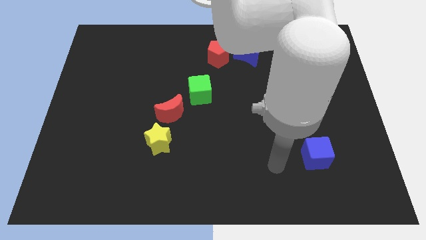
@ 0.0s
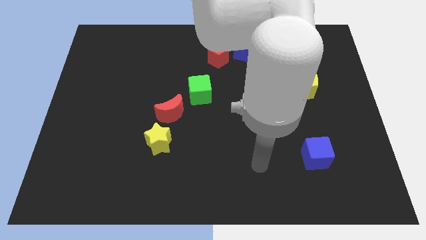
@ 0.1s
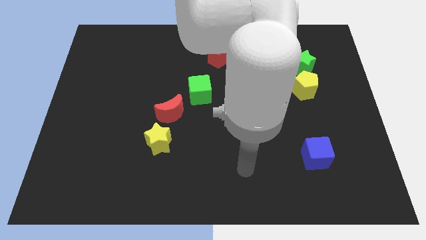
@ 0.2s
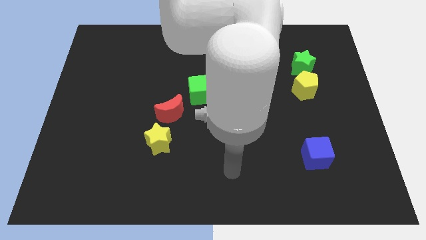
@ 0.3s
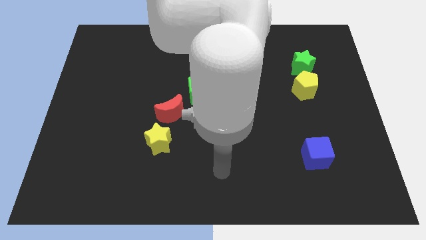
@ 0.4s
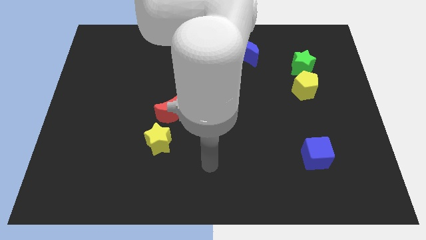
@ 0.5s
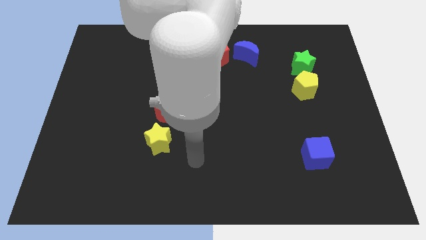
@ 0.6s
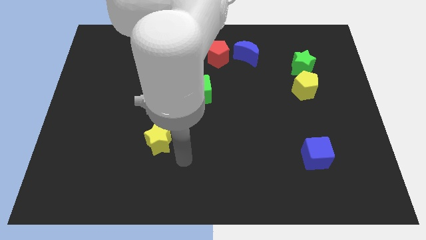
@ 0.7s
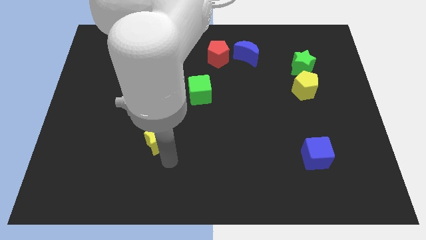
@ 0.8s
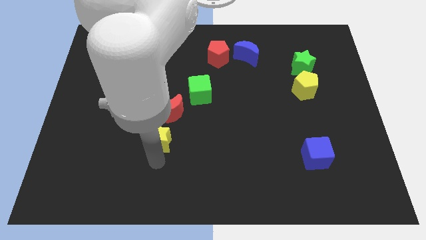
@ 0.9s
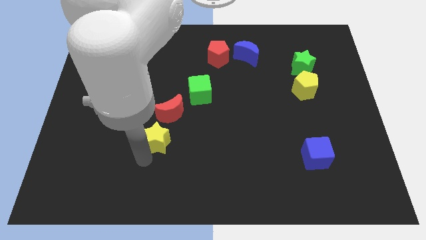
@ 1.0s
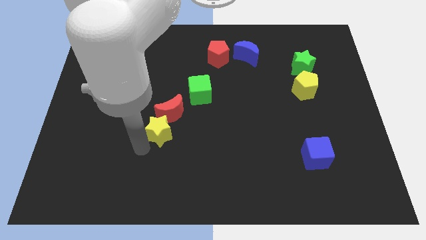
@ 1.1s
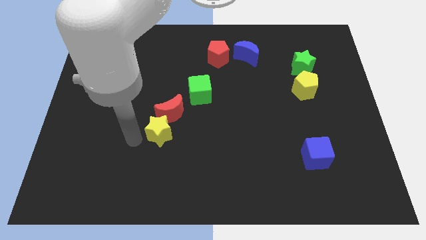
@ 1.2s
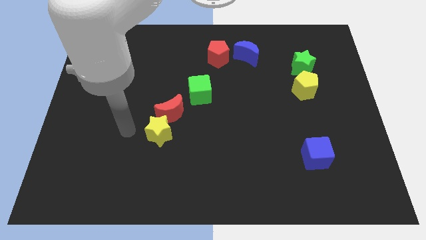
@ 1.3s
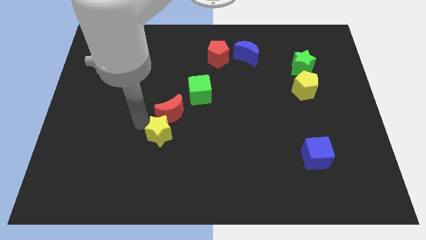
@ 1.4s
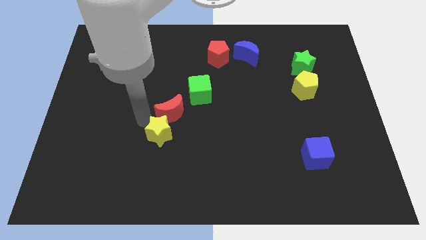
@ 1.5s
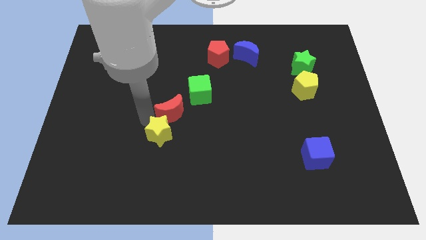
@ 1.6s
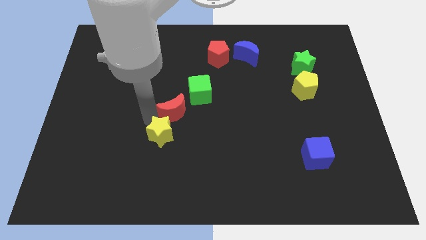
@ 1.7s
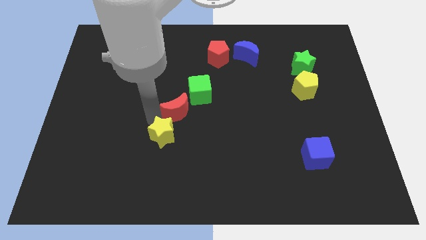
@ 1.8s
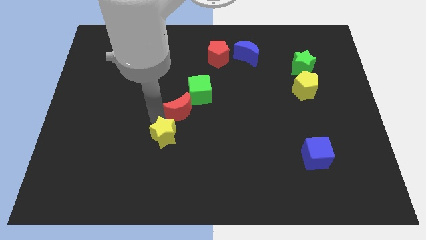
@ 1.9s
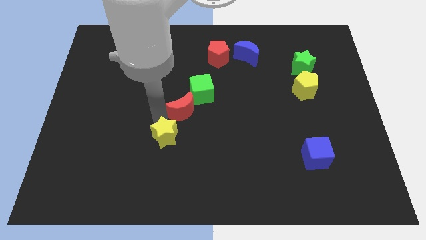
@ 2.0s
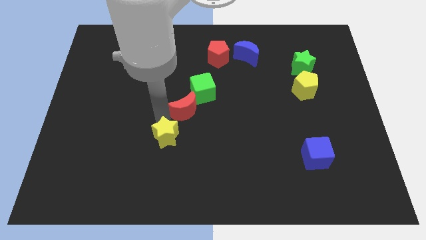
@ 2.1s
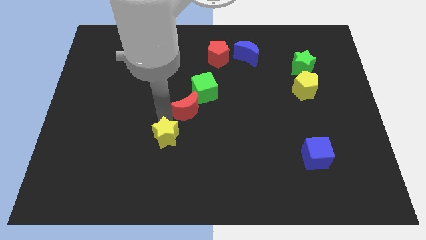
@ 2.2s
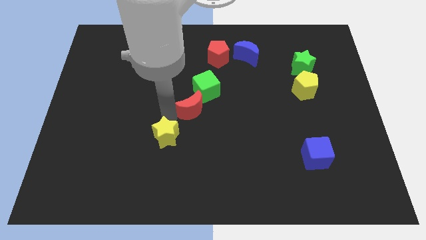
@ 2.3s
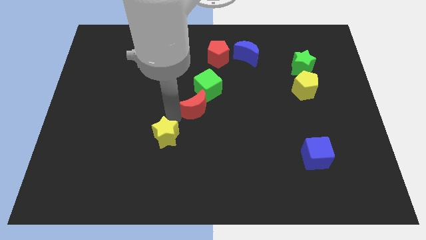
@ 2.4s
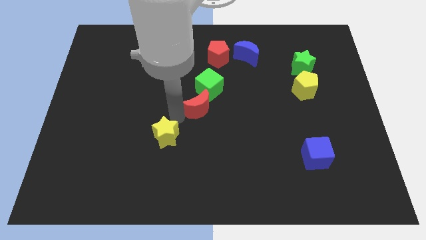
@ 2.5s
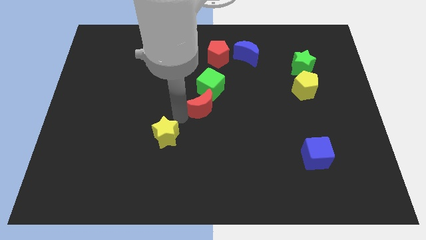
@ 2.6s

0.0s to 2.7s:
push the red moon a bit to the right

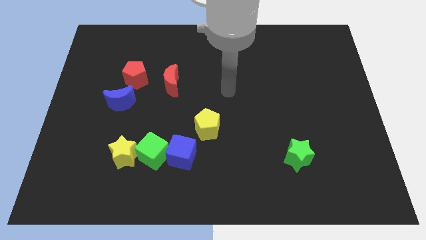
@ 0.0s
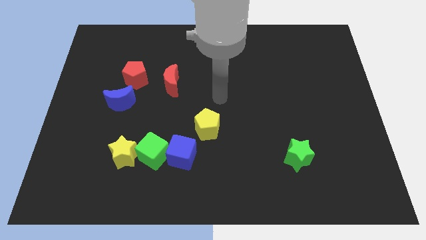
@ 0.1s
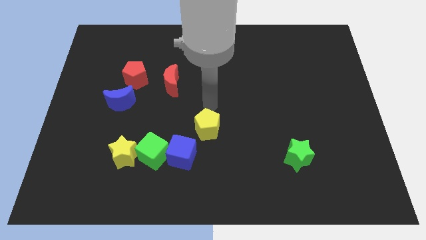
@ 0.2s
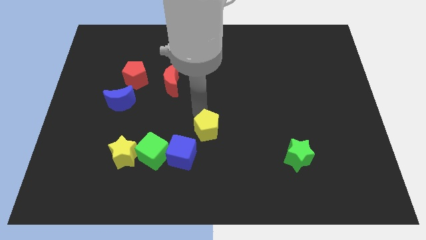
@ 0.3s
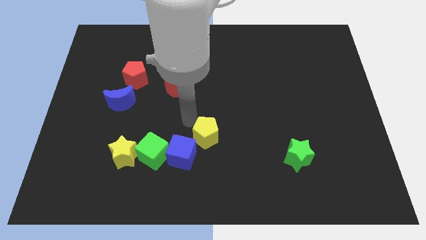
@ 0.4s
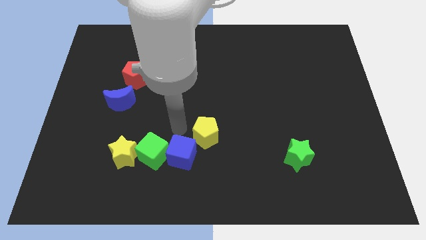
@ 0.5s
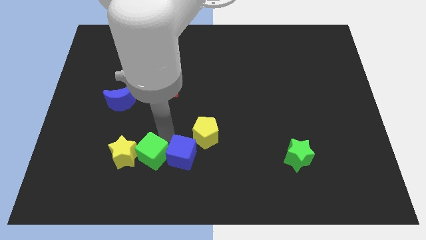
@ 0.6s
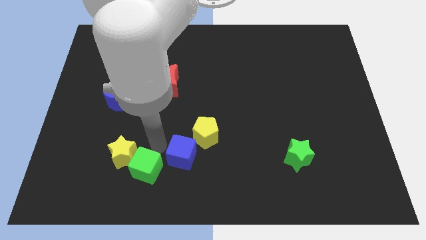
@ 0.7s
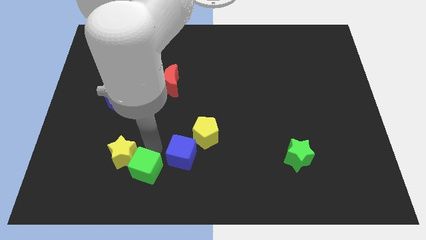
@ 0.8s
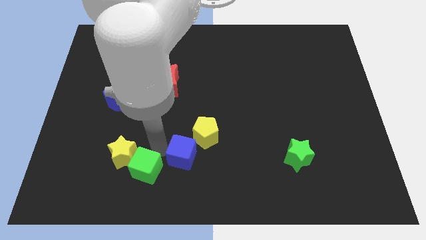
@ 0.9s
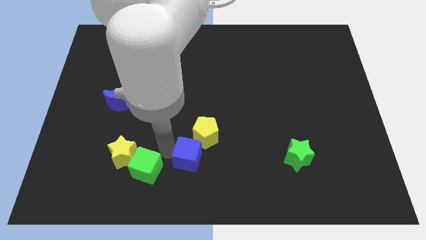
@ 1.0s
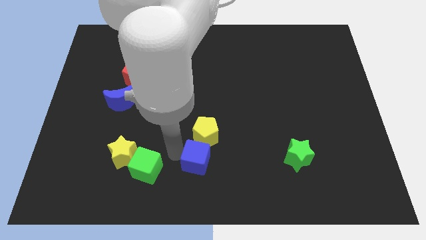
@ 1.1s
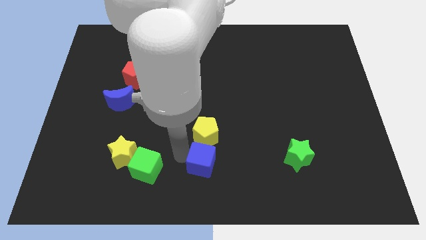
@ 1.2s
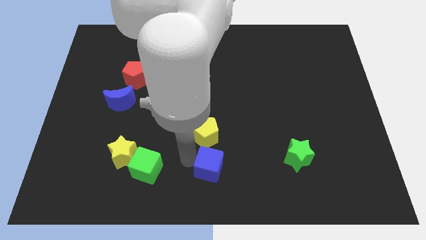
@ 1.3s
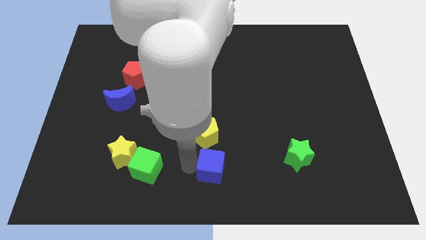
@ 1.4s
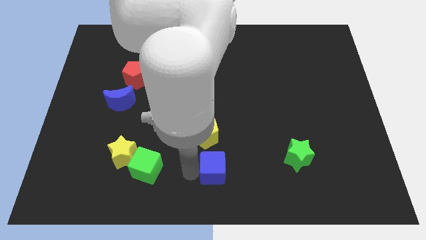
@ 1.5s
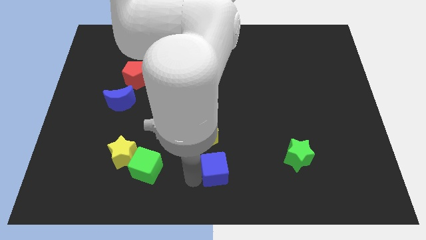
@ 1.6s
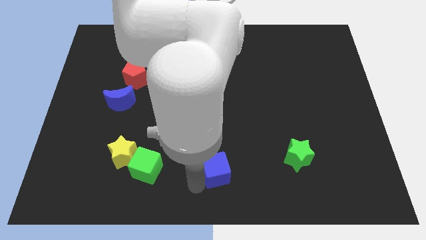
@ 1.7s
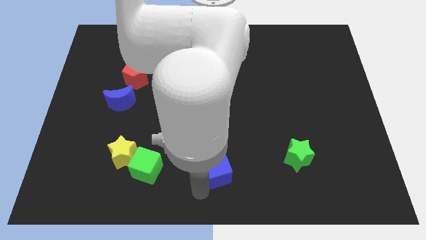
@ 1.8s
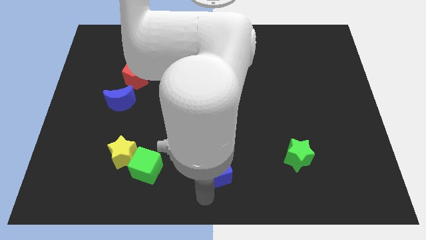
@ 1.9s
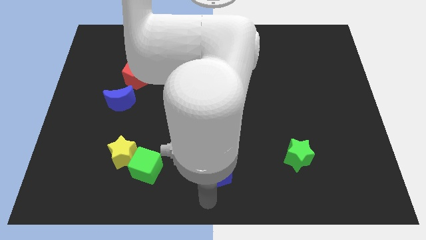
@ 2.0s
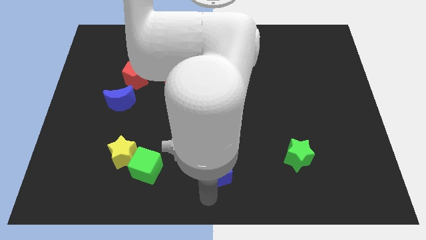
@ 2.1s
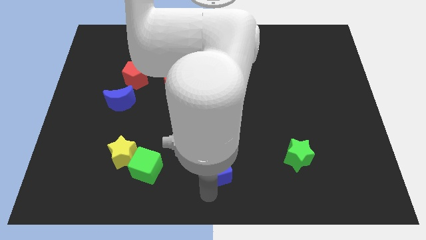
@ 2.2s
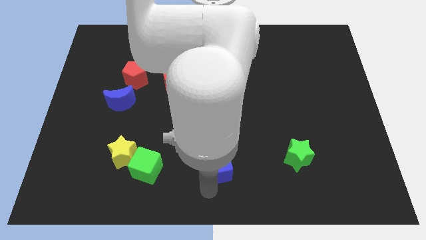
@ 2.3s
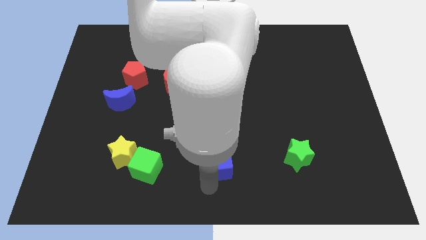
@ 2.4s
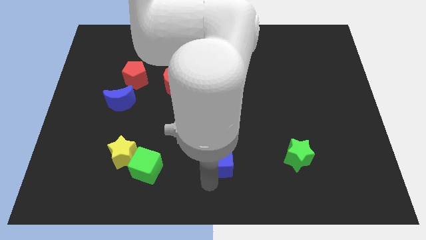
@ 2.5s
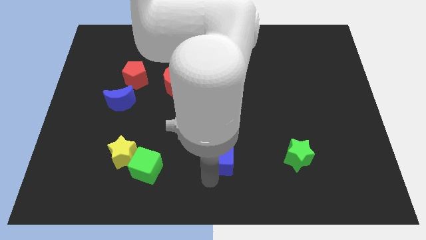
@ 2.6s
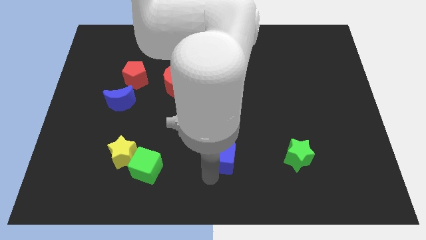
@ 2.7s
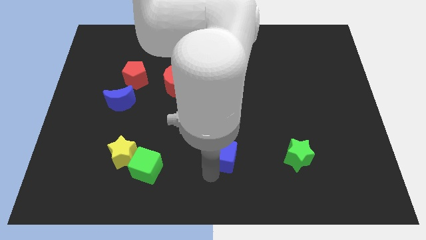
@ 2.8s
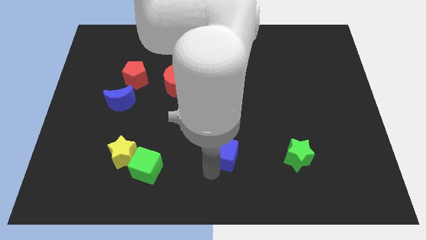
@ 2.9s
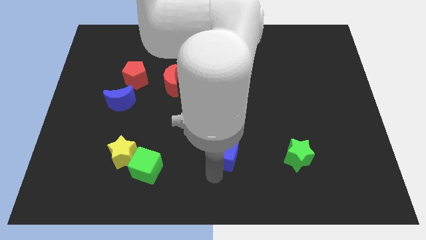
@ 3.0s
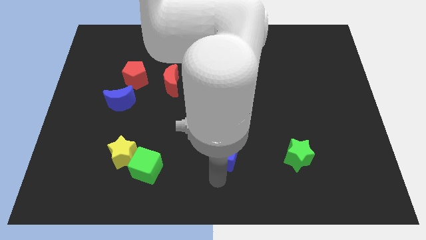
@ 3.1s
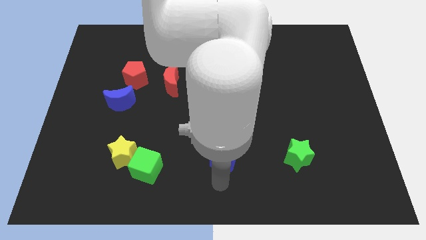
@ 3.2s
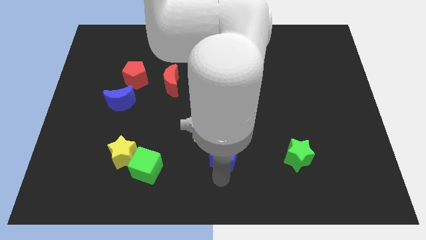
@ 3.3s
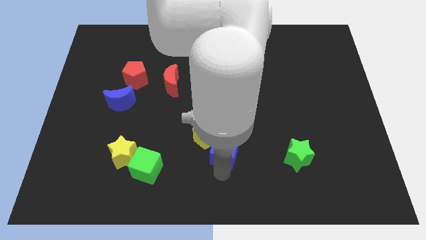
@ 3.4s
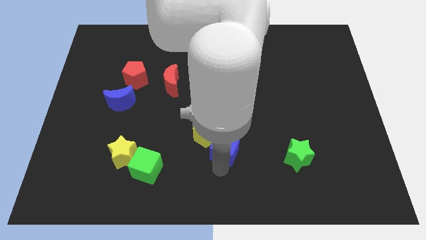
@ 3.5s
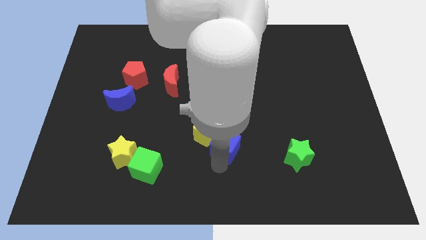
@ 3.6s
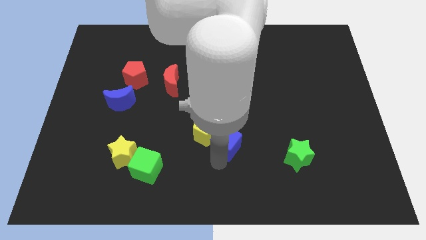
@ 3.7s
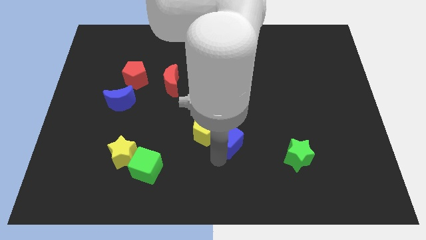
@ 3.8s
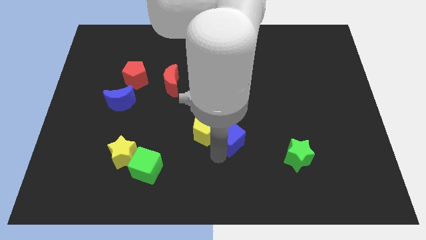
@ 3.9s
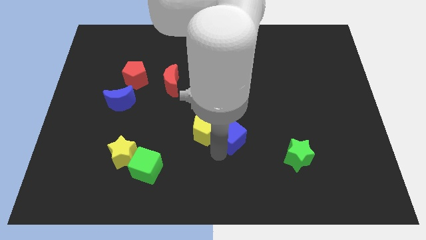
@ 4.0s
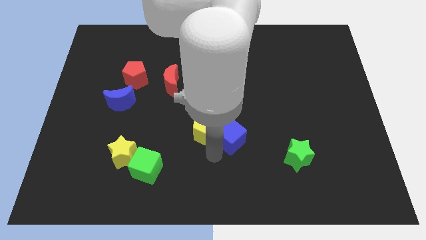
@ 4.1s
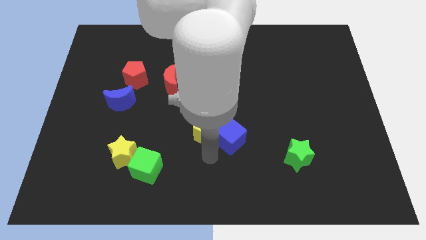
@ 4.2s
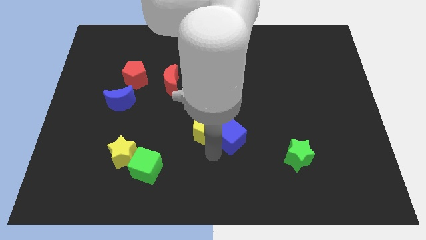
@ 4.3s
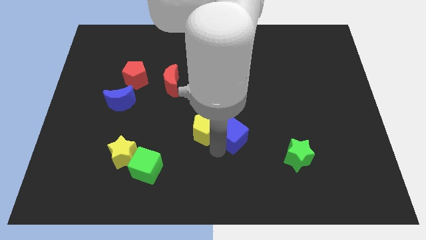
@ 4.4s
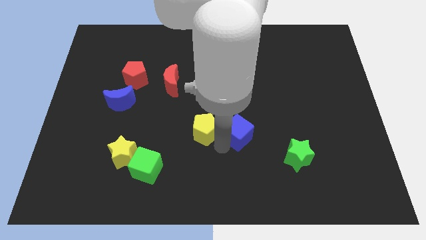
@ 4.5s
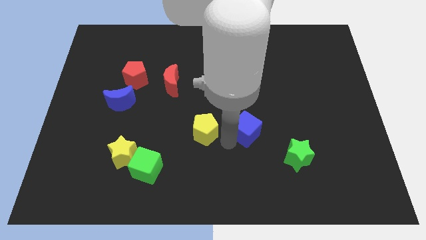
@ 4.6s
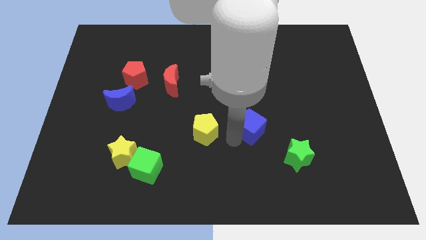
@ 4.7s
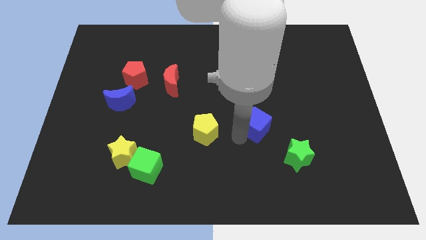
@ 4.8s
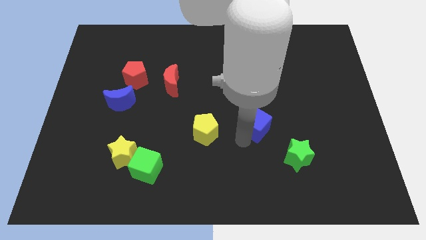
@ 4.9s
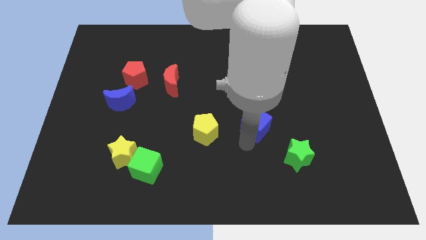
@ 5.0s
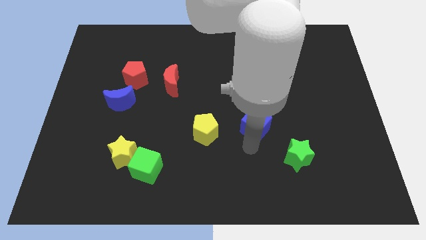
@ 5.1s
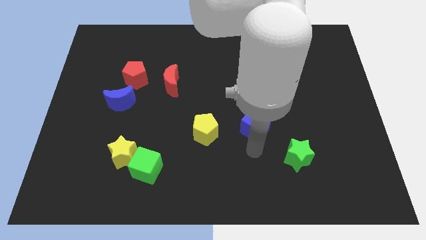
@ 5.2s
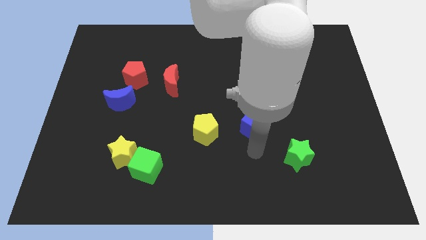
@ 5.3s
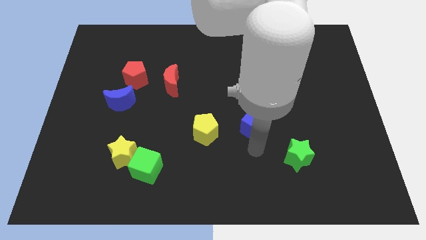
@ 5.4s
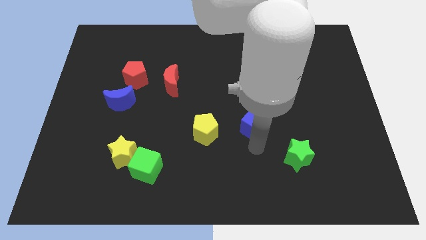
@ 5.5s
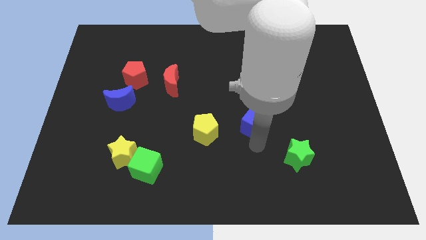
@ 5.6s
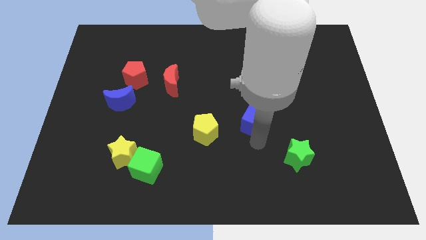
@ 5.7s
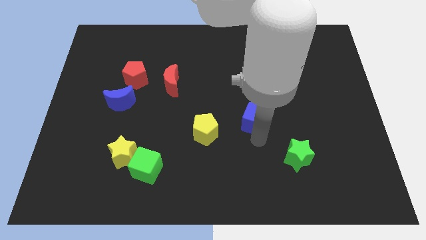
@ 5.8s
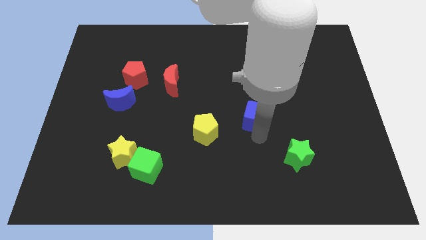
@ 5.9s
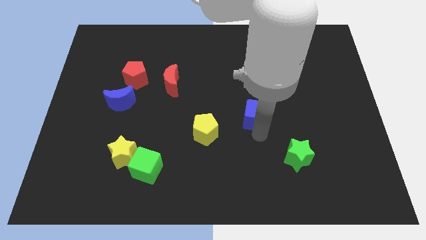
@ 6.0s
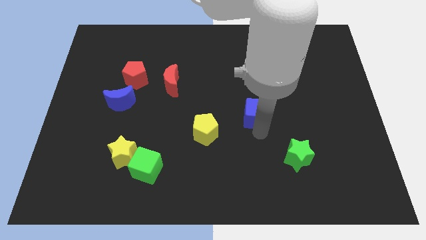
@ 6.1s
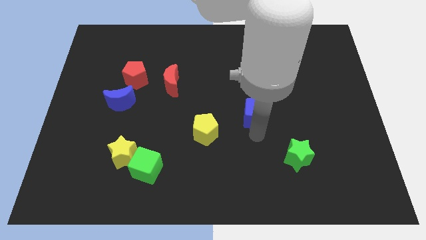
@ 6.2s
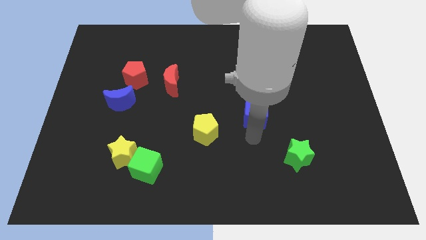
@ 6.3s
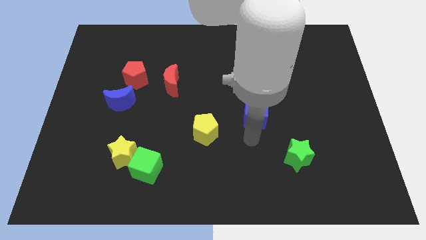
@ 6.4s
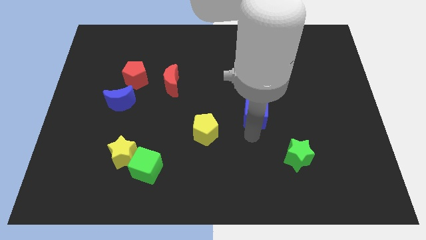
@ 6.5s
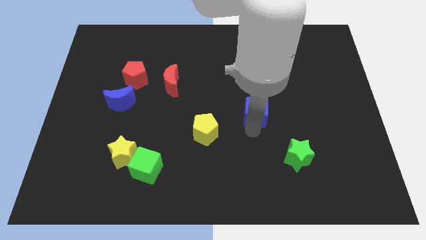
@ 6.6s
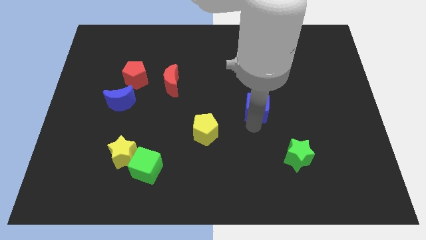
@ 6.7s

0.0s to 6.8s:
slide the blue cube upwards and then to the right
